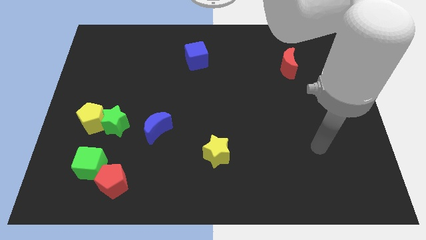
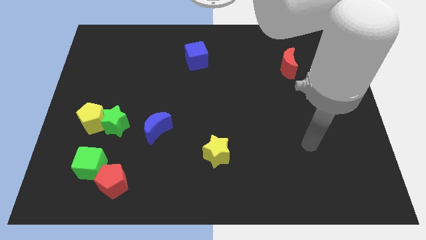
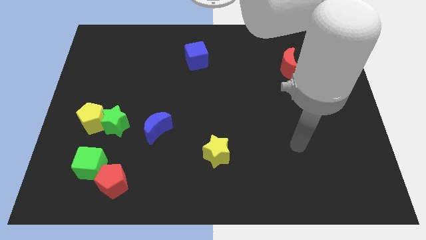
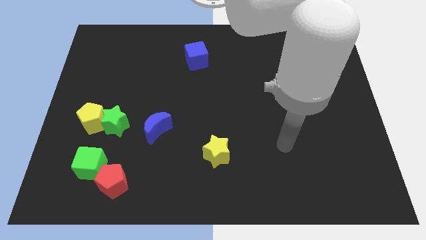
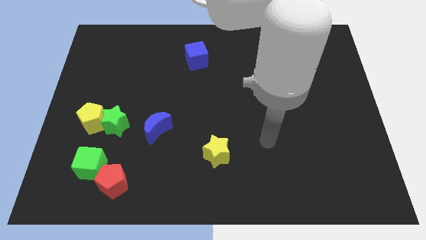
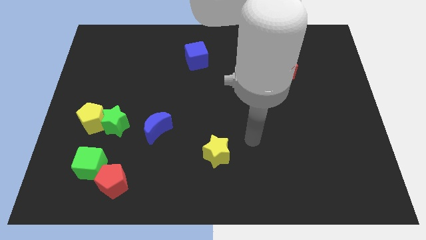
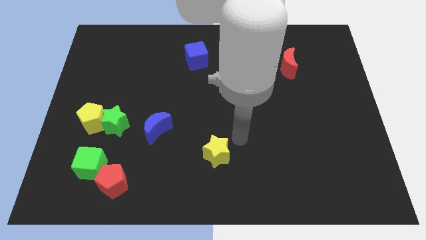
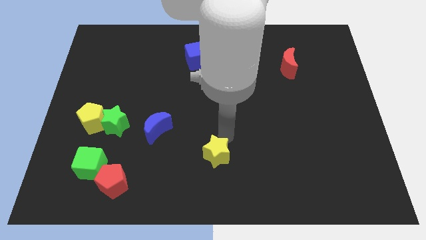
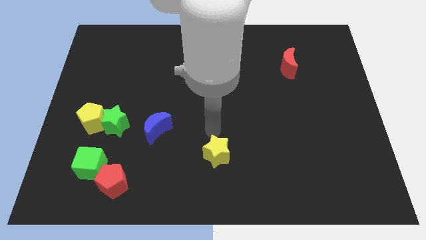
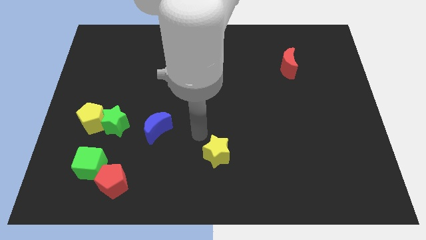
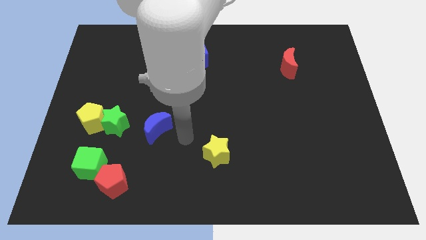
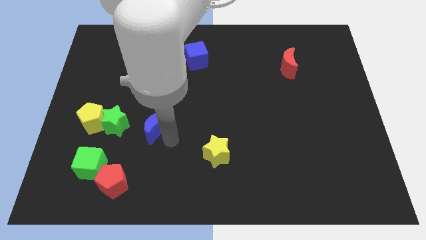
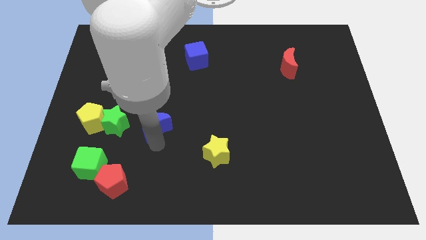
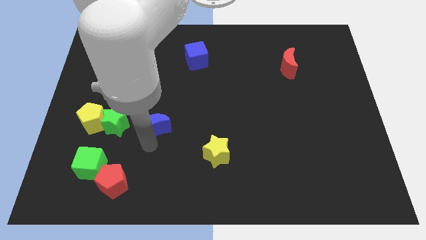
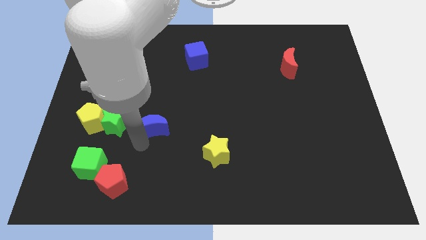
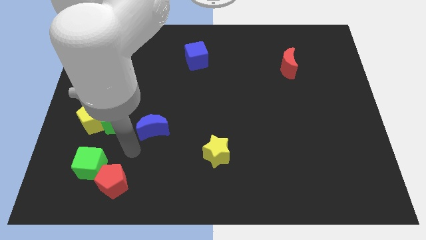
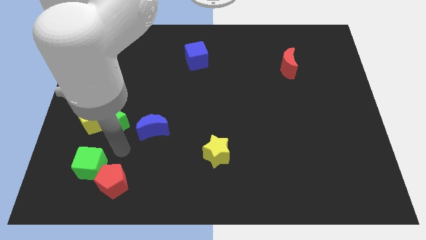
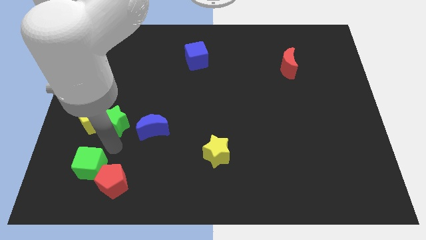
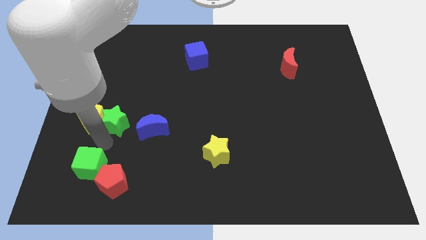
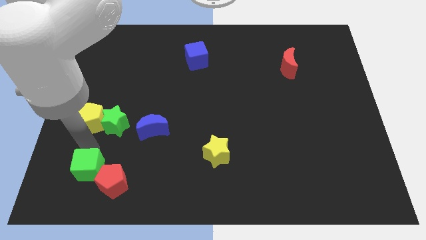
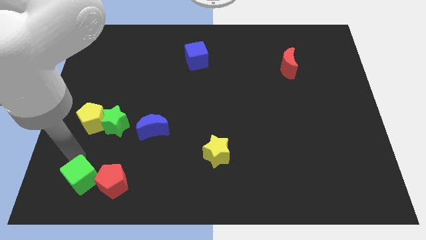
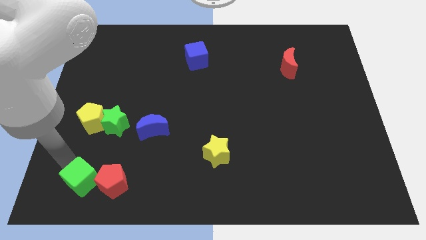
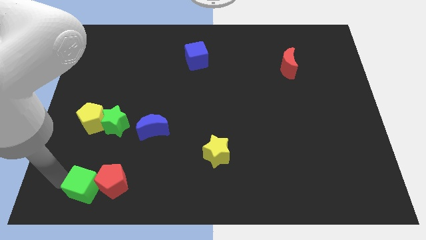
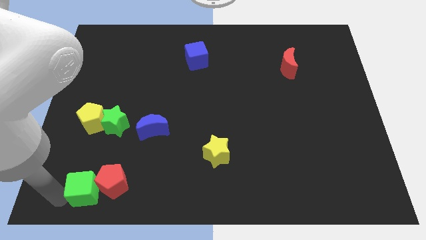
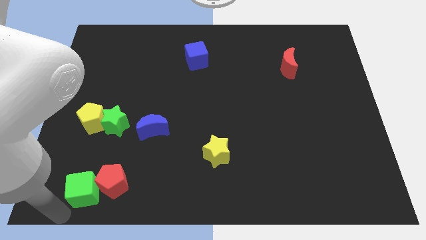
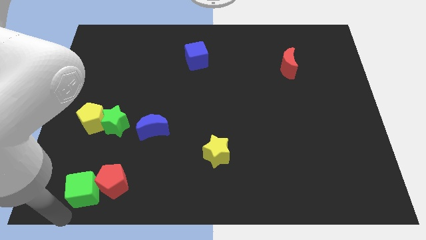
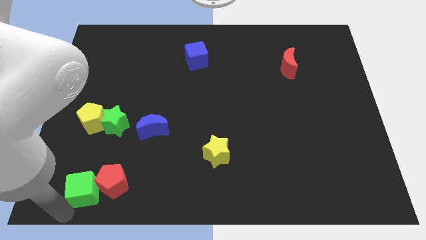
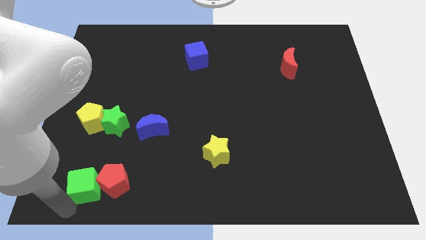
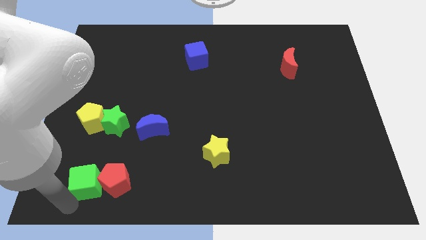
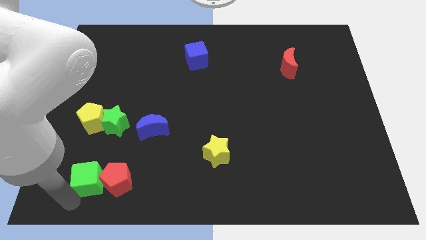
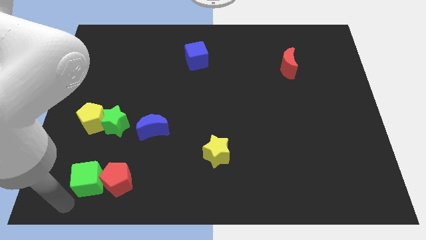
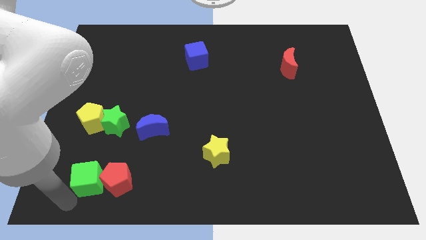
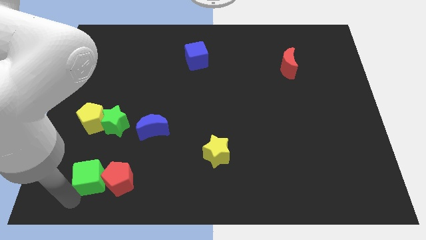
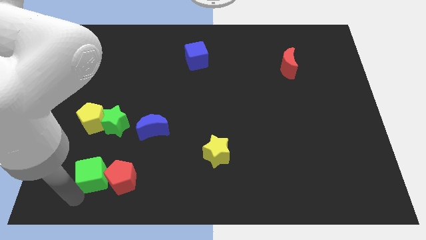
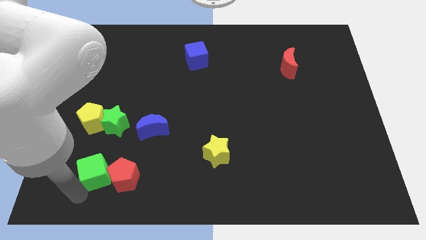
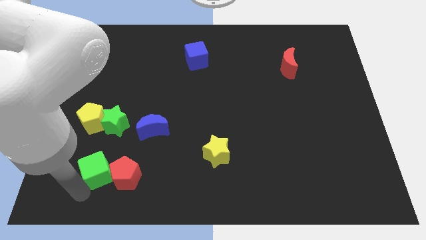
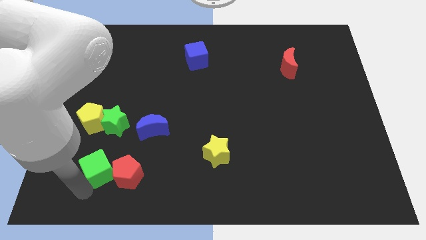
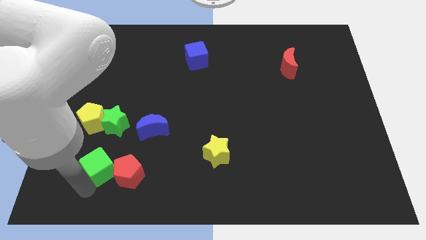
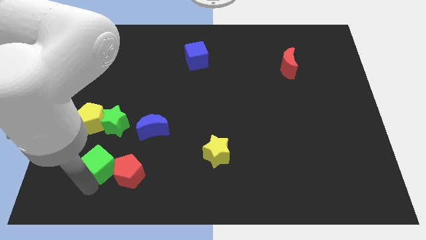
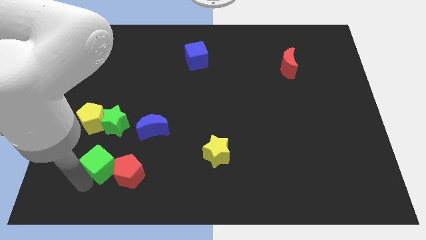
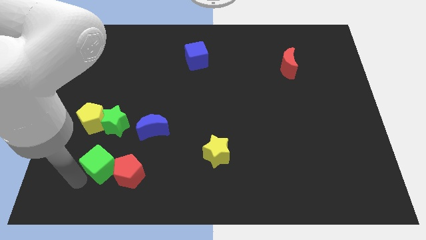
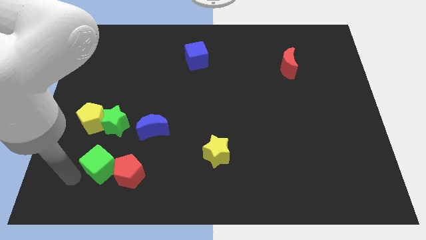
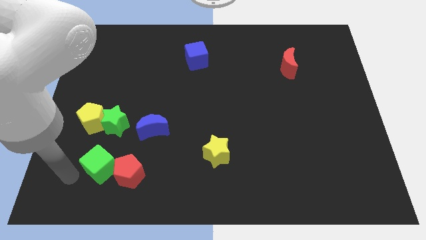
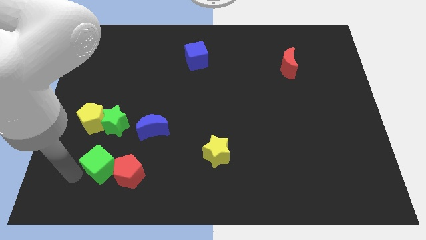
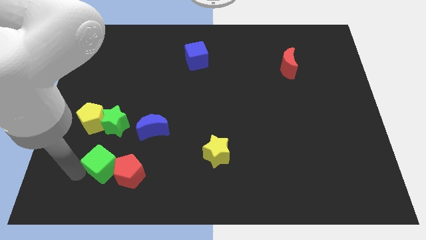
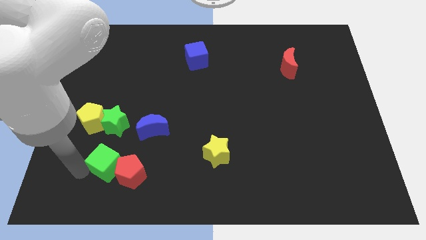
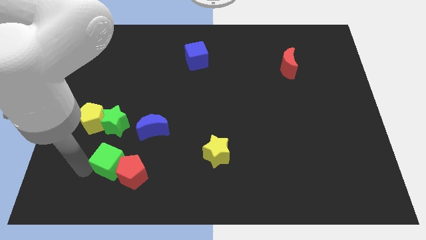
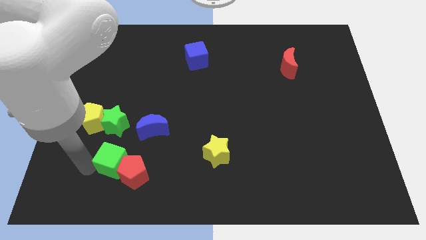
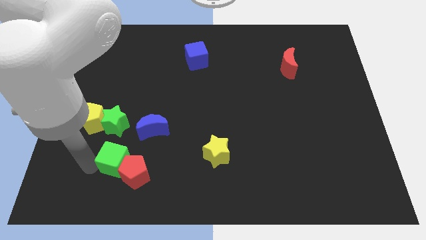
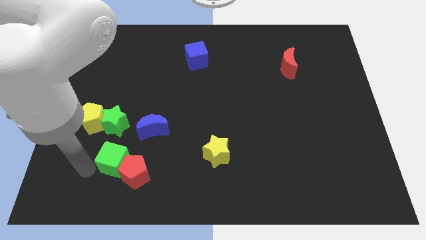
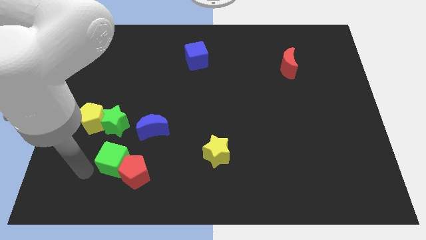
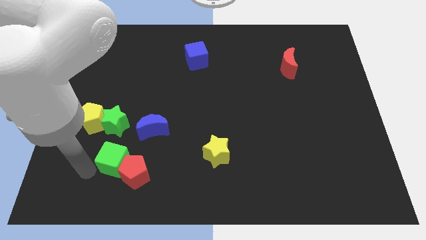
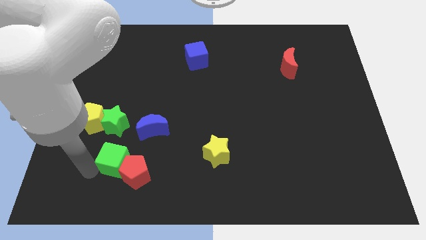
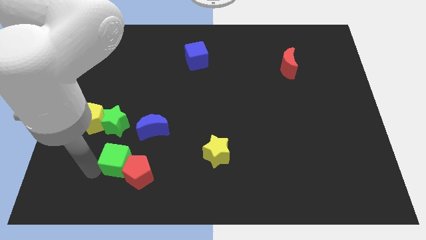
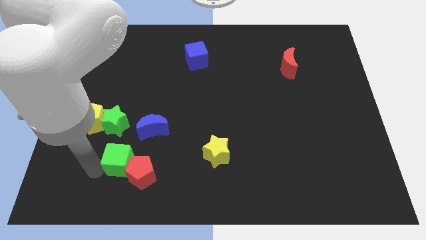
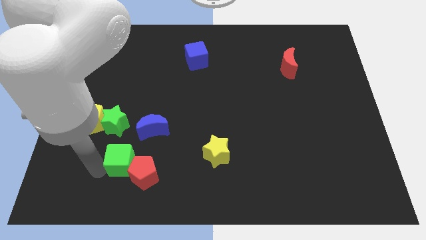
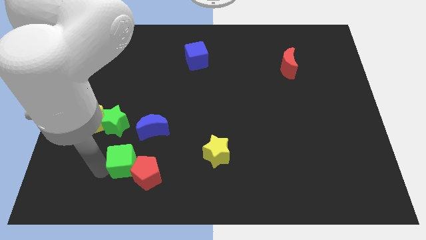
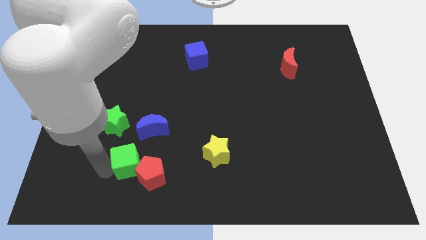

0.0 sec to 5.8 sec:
slide the green cube right a little

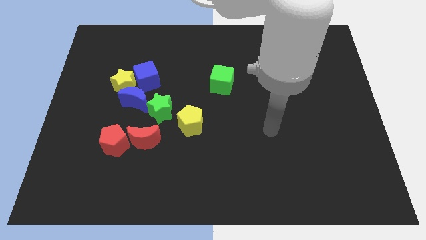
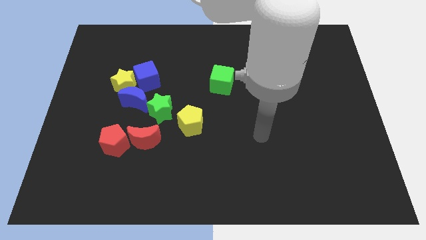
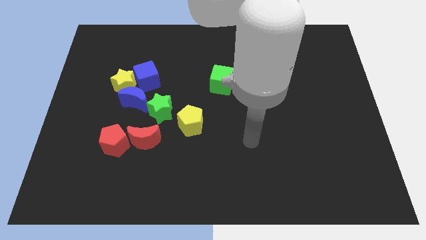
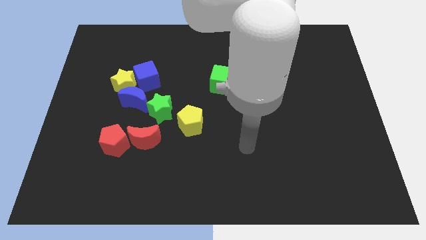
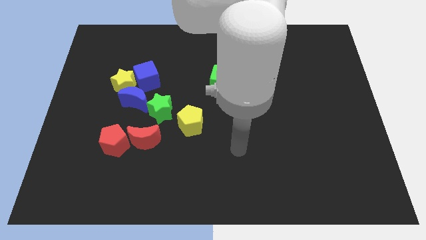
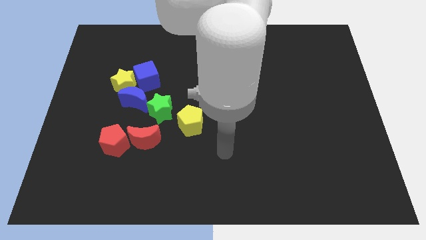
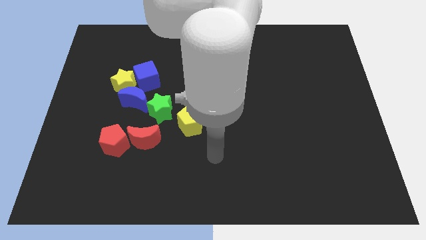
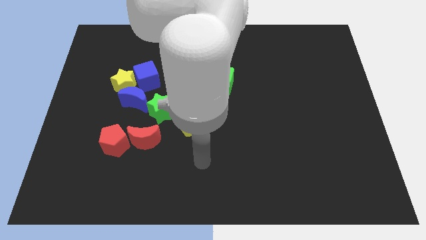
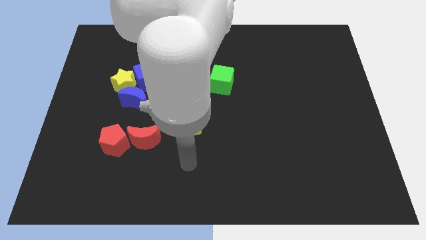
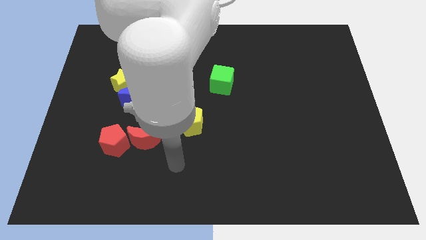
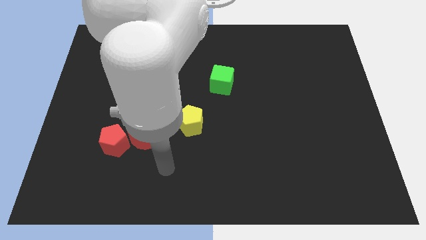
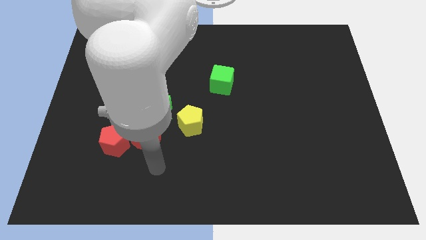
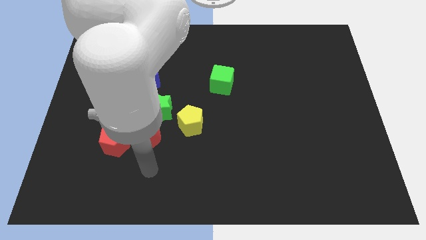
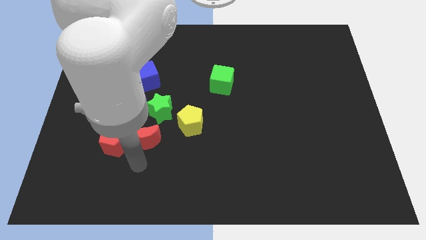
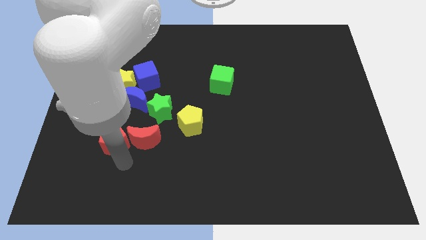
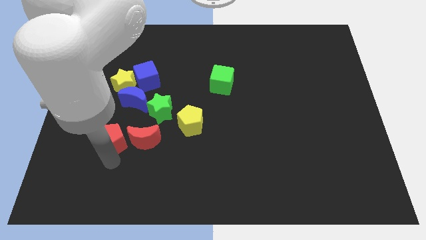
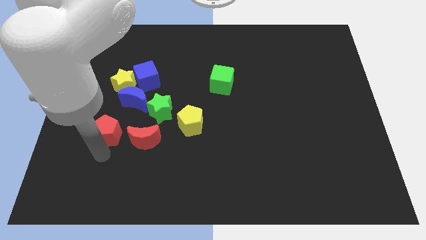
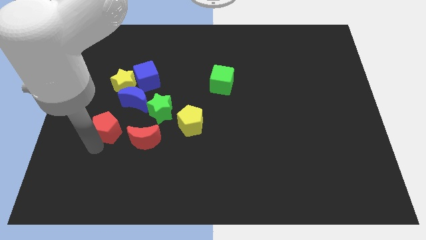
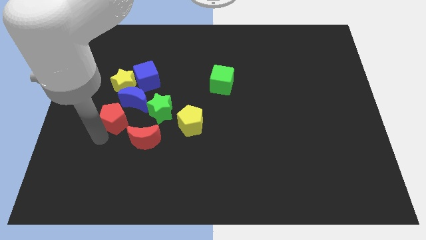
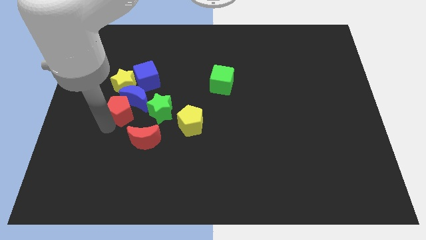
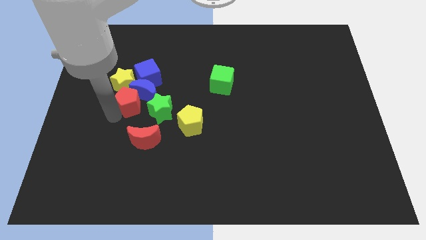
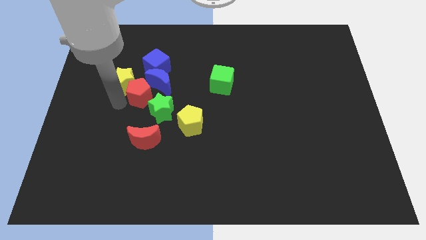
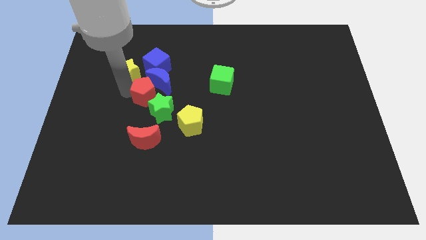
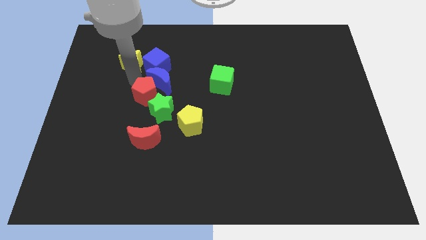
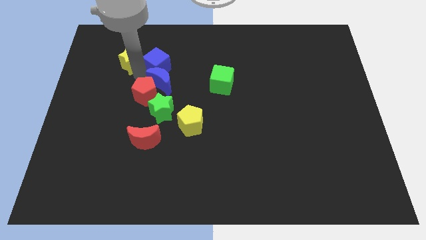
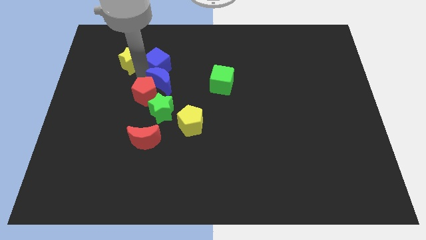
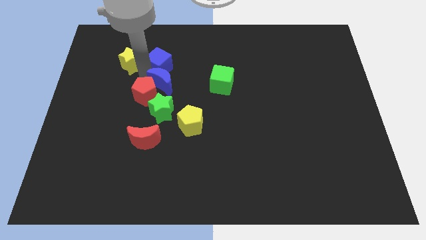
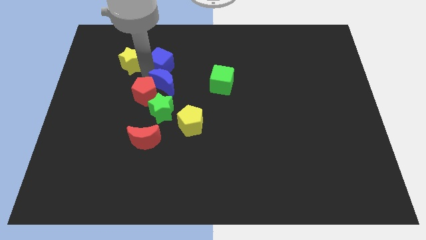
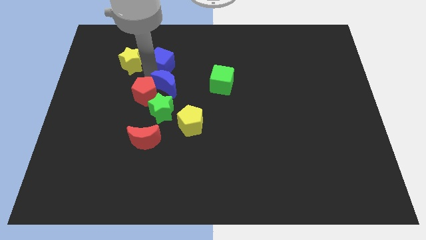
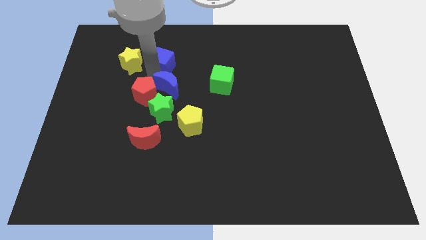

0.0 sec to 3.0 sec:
slide the blue moon right slightly
